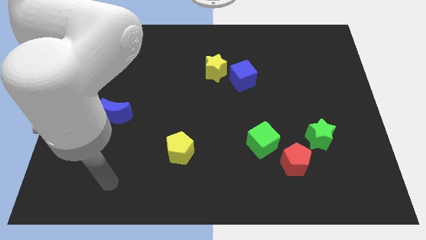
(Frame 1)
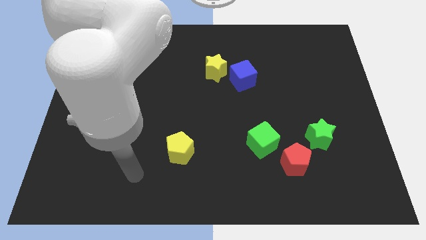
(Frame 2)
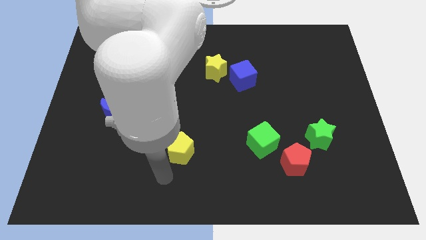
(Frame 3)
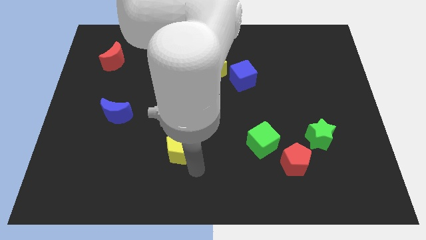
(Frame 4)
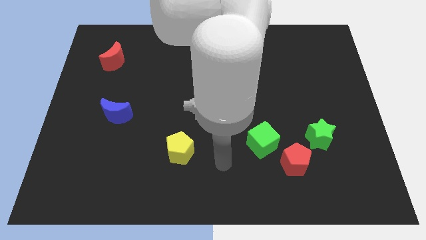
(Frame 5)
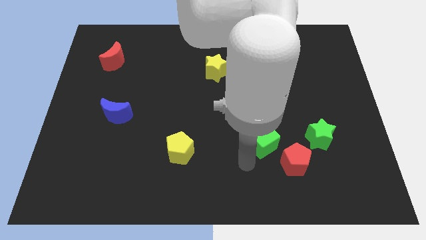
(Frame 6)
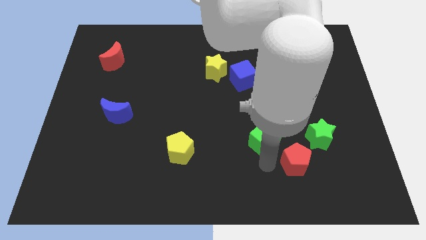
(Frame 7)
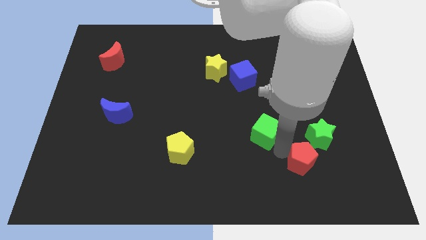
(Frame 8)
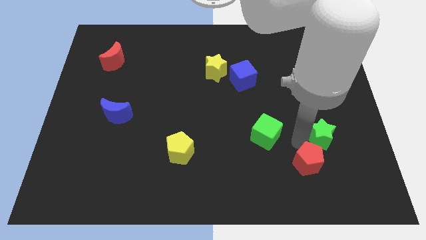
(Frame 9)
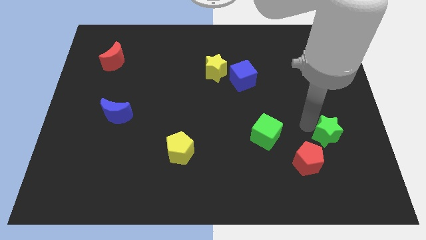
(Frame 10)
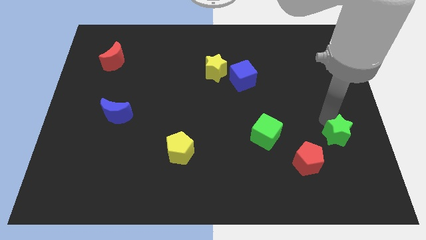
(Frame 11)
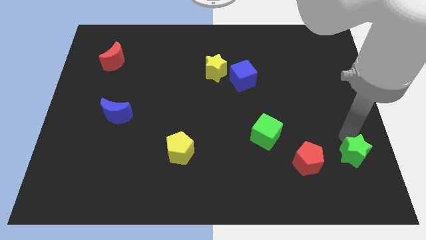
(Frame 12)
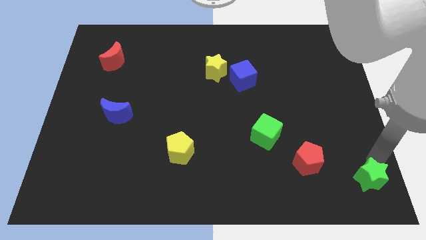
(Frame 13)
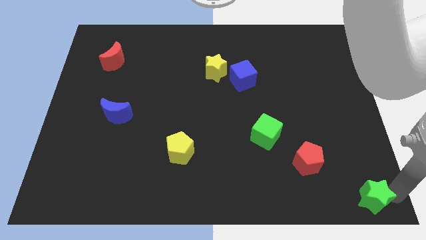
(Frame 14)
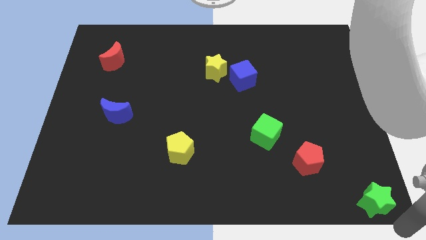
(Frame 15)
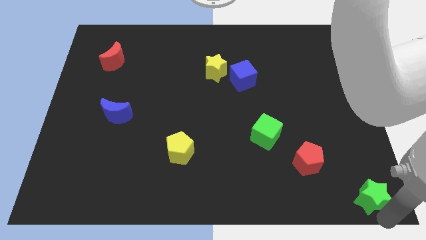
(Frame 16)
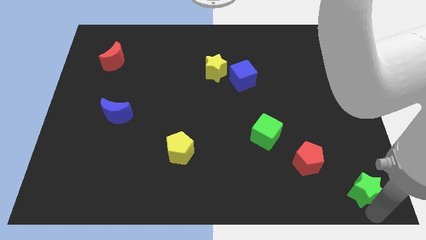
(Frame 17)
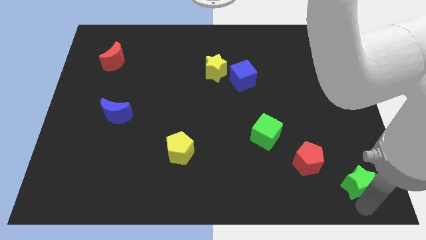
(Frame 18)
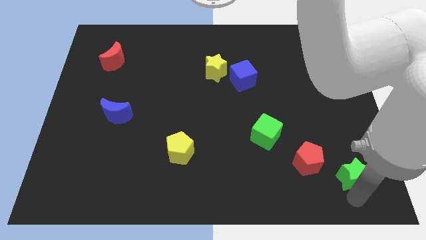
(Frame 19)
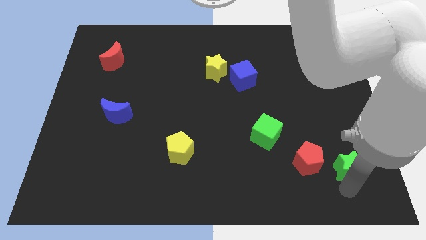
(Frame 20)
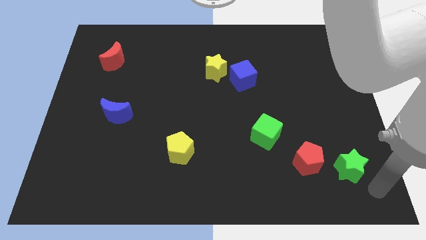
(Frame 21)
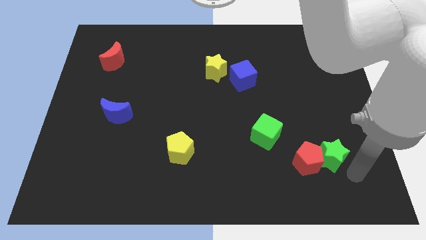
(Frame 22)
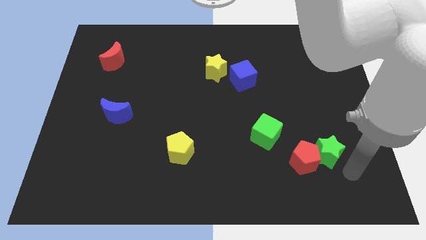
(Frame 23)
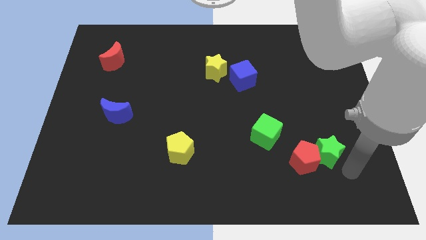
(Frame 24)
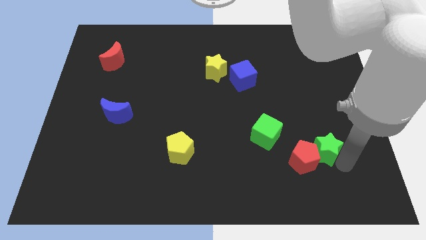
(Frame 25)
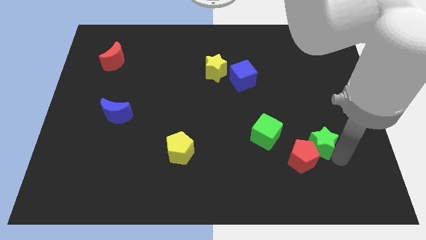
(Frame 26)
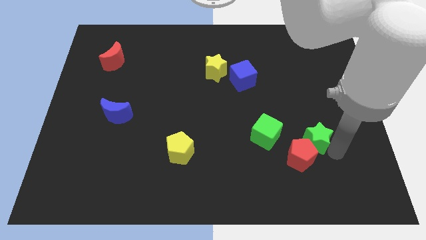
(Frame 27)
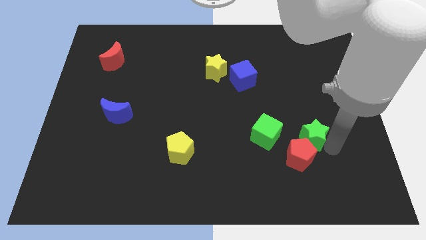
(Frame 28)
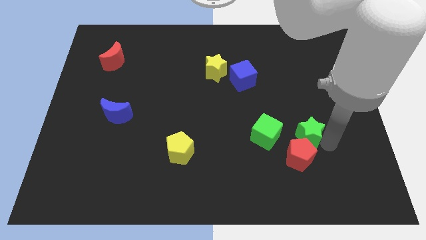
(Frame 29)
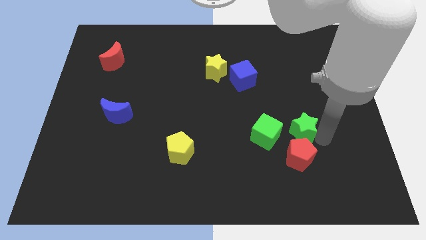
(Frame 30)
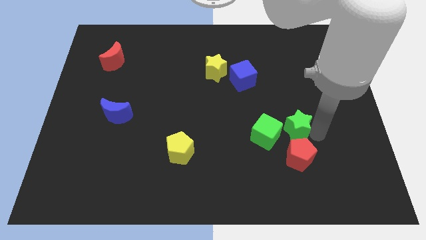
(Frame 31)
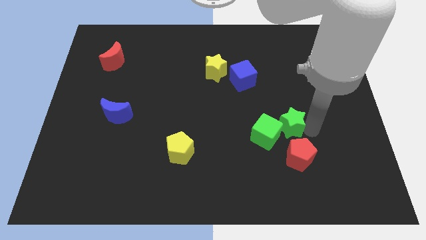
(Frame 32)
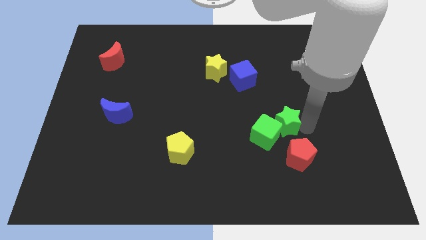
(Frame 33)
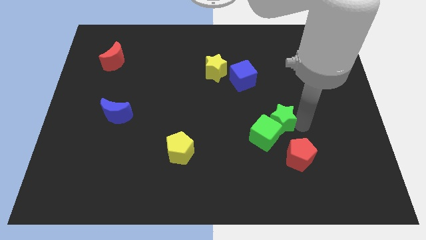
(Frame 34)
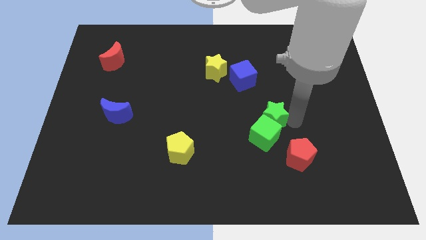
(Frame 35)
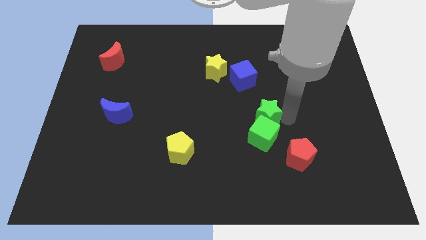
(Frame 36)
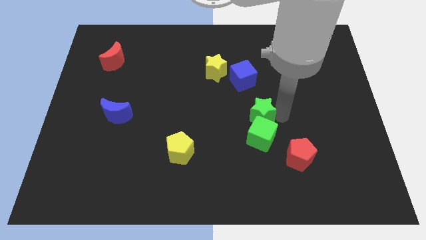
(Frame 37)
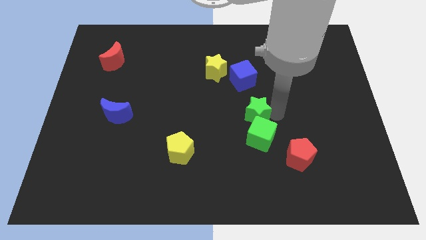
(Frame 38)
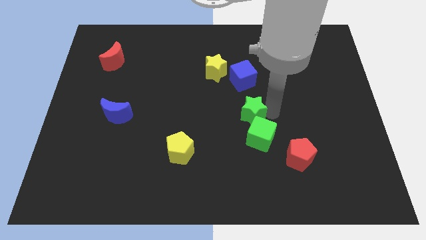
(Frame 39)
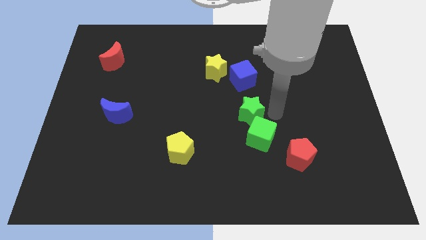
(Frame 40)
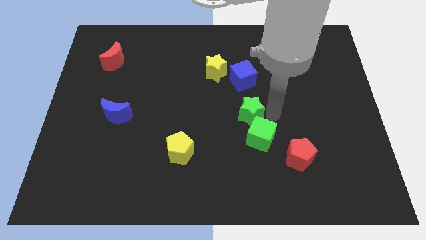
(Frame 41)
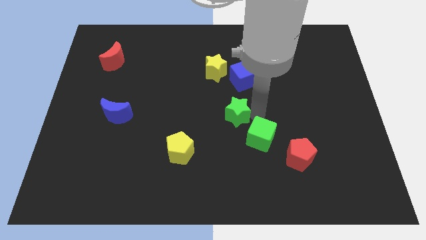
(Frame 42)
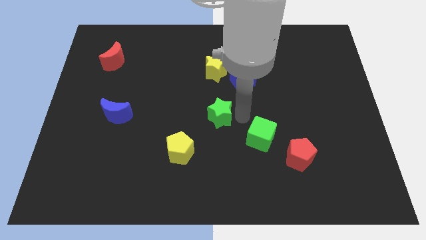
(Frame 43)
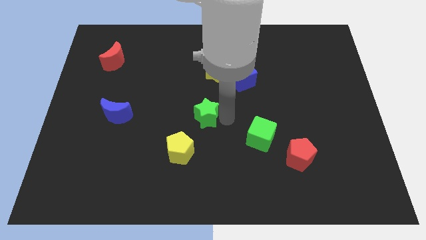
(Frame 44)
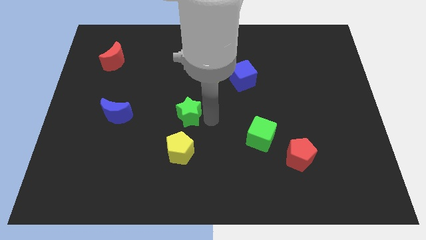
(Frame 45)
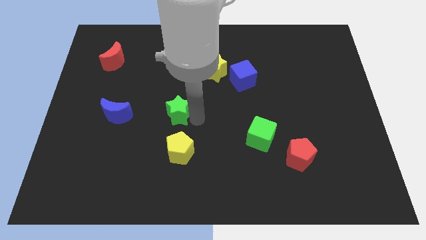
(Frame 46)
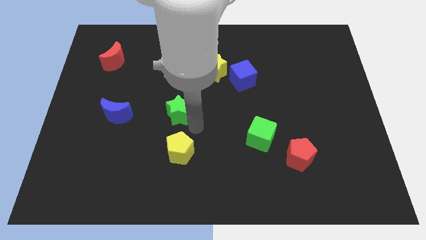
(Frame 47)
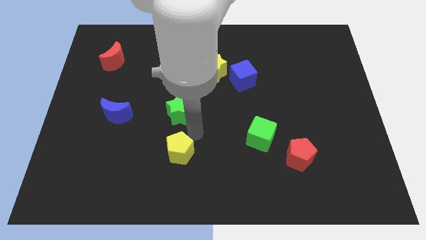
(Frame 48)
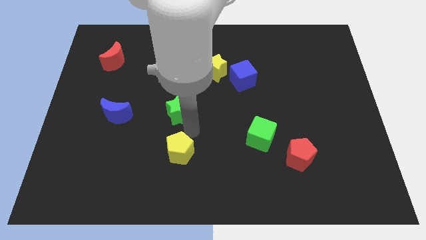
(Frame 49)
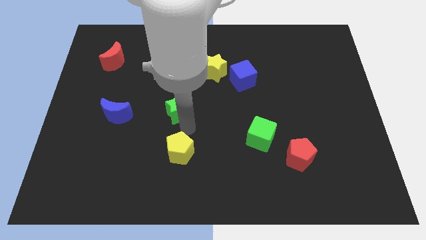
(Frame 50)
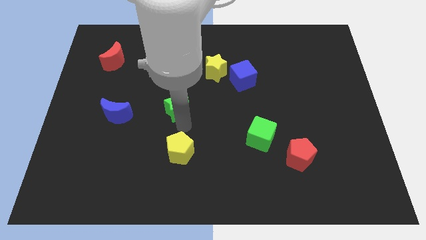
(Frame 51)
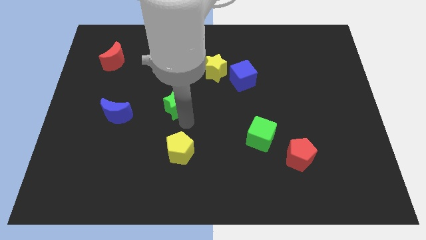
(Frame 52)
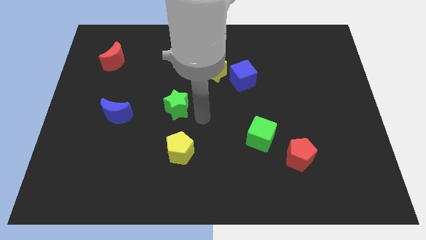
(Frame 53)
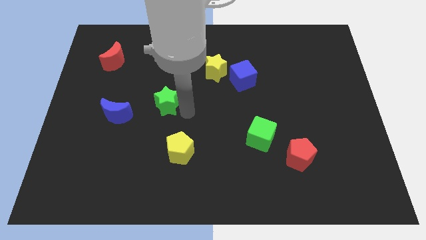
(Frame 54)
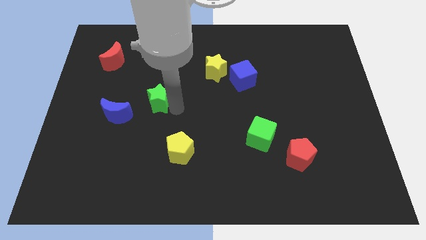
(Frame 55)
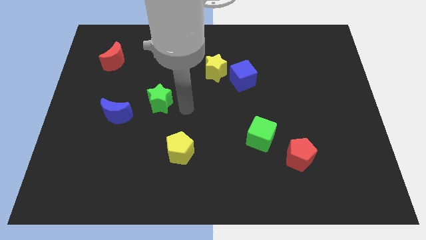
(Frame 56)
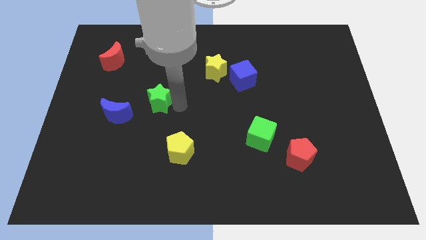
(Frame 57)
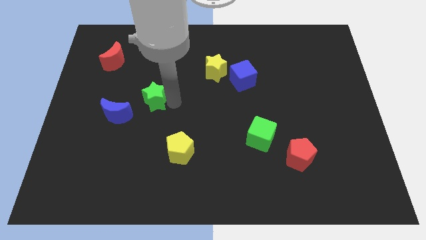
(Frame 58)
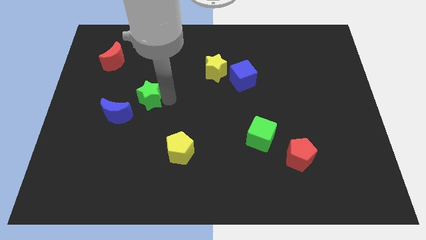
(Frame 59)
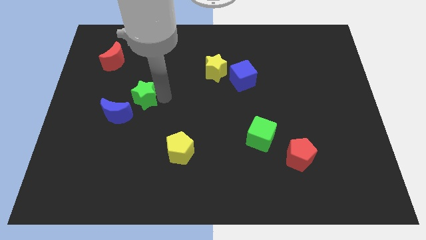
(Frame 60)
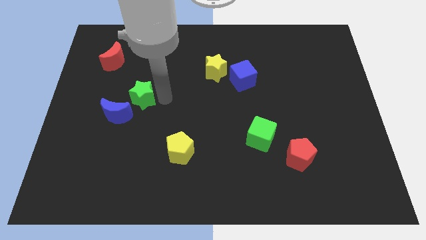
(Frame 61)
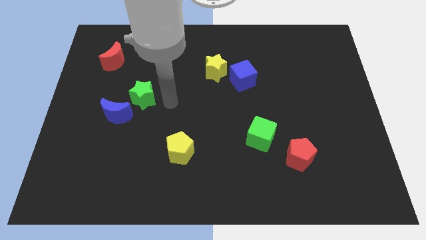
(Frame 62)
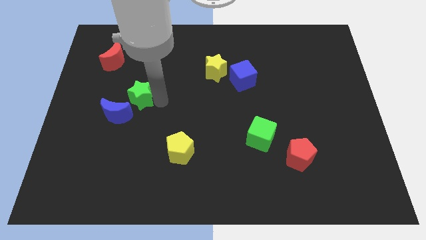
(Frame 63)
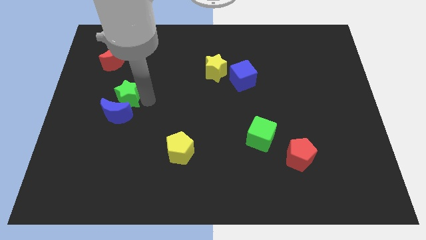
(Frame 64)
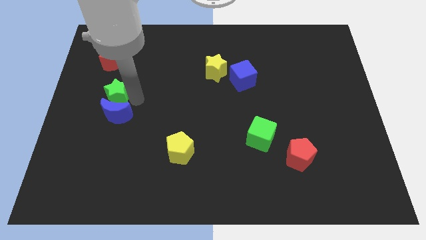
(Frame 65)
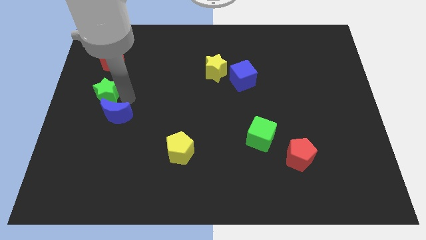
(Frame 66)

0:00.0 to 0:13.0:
slide the green star to the left side

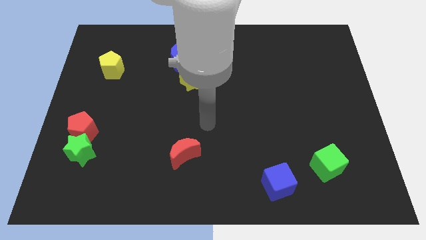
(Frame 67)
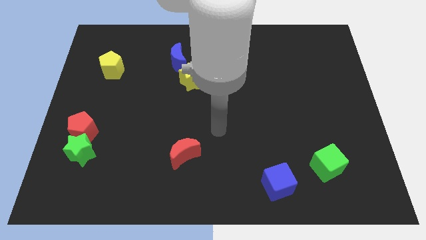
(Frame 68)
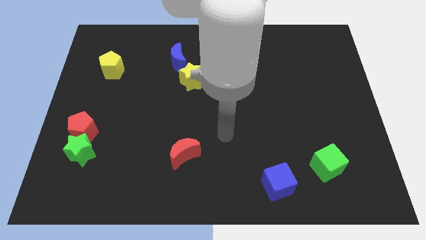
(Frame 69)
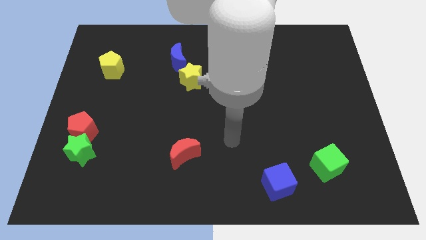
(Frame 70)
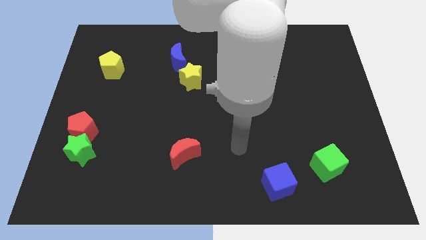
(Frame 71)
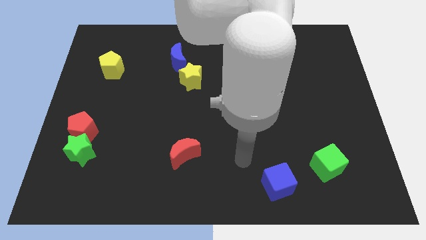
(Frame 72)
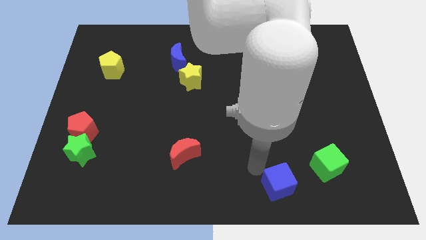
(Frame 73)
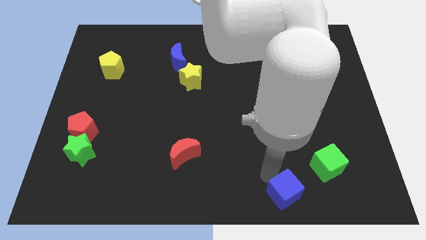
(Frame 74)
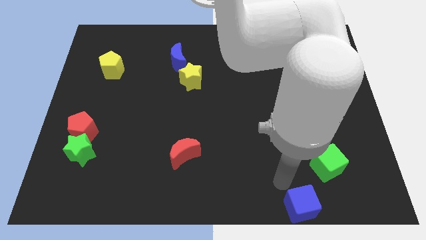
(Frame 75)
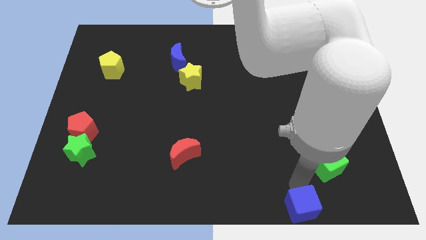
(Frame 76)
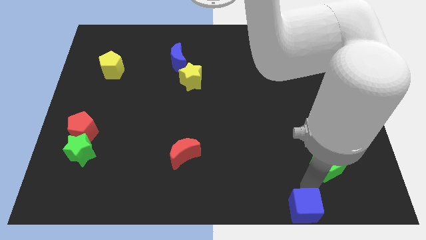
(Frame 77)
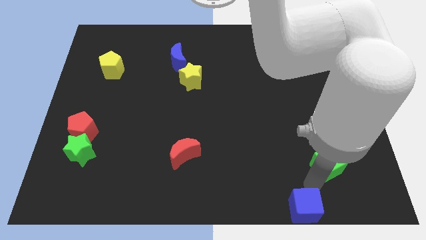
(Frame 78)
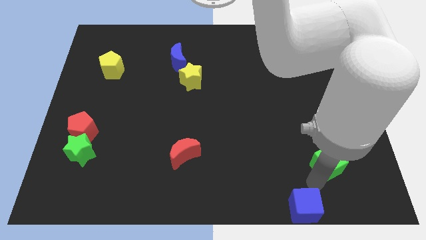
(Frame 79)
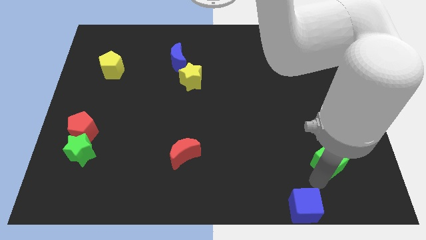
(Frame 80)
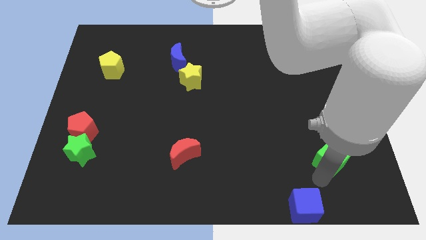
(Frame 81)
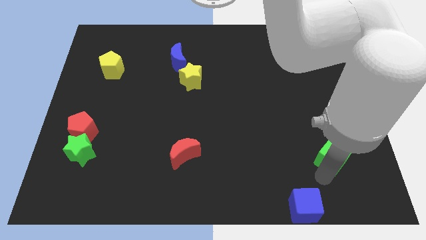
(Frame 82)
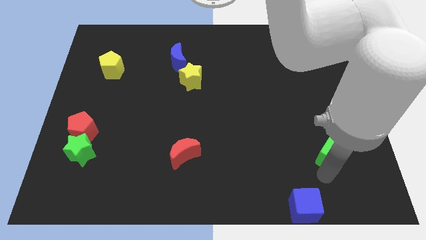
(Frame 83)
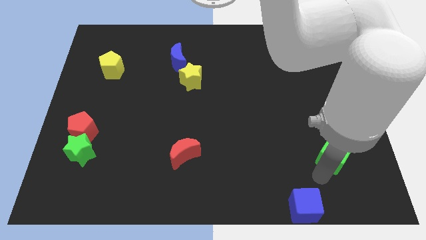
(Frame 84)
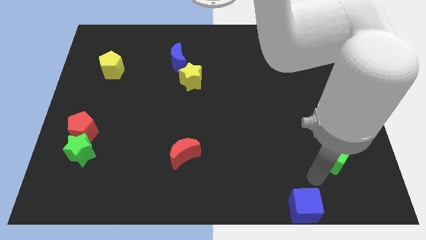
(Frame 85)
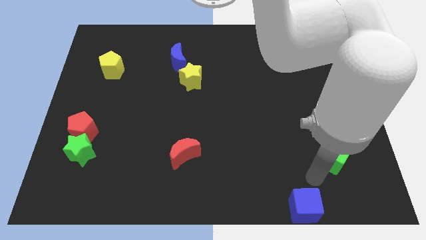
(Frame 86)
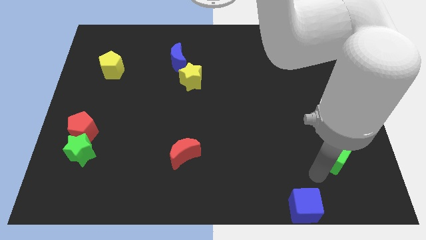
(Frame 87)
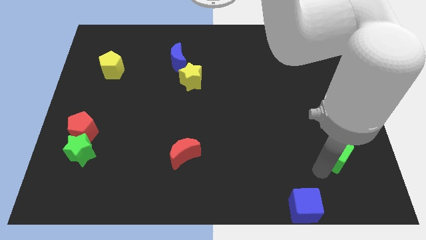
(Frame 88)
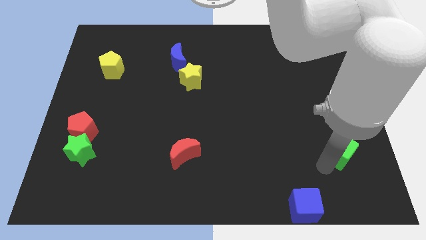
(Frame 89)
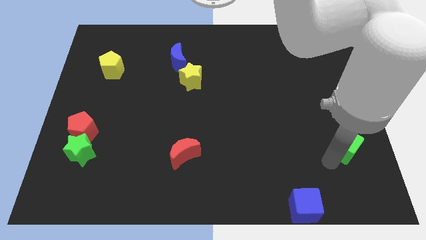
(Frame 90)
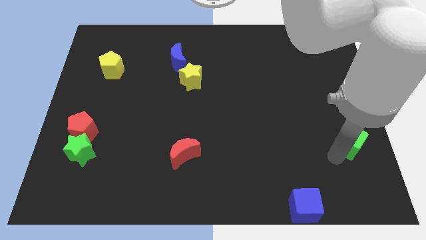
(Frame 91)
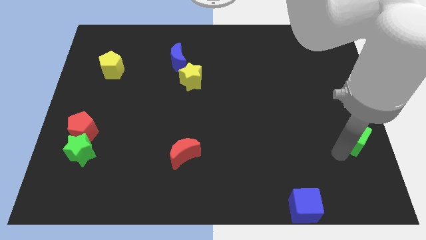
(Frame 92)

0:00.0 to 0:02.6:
move the green cube to the center right
